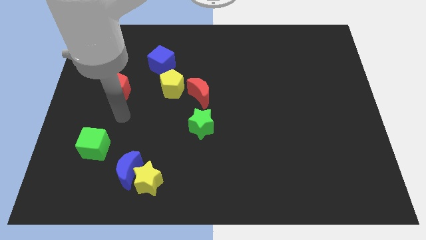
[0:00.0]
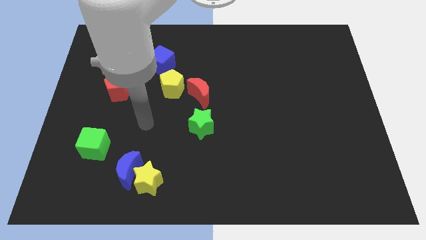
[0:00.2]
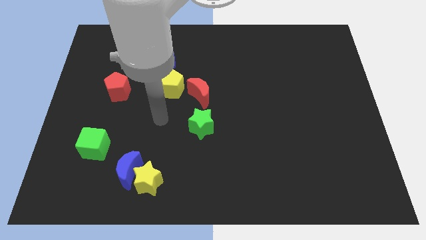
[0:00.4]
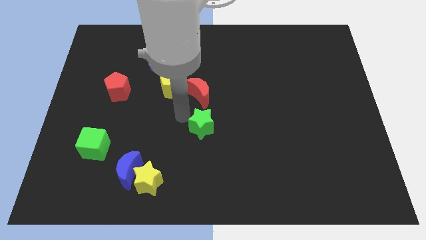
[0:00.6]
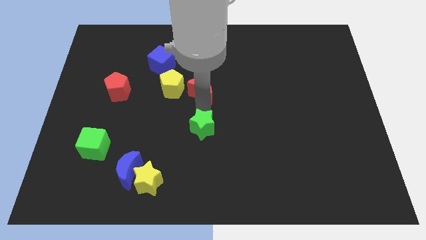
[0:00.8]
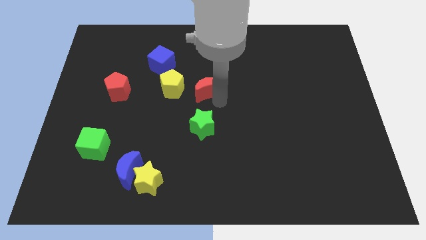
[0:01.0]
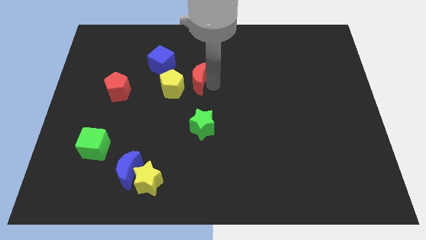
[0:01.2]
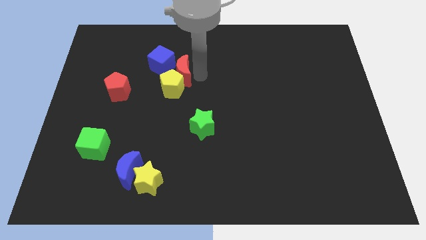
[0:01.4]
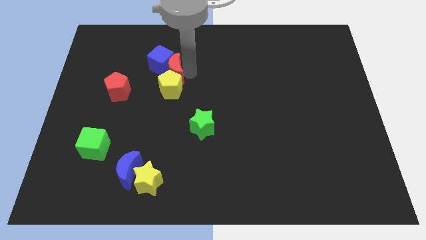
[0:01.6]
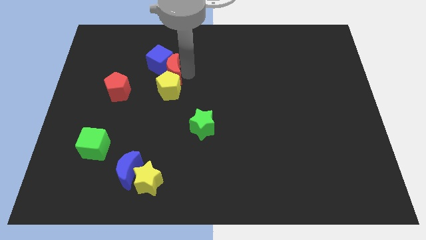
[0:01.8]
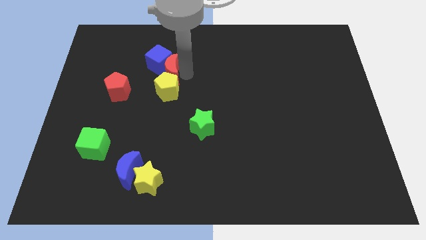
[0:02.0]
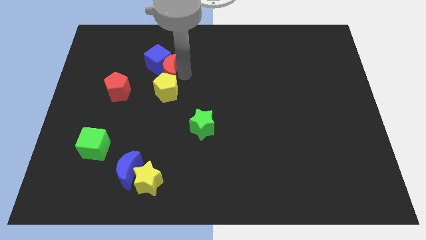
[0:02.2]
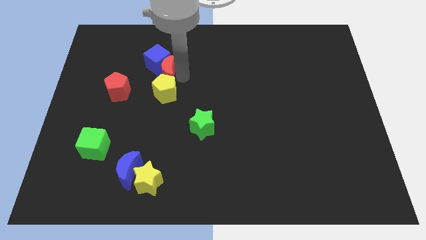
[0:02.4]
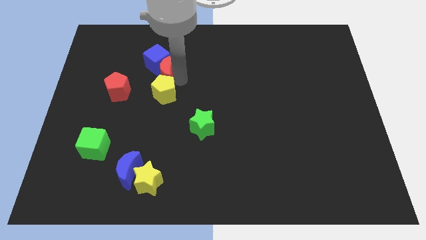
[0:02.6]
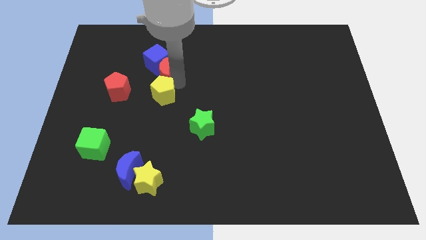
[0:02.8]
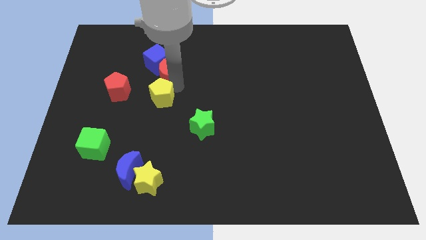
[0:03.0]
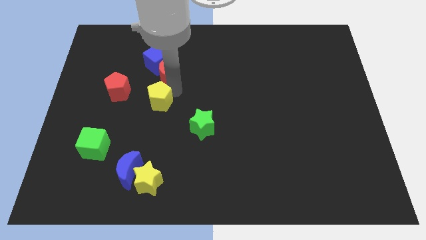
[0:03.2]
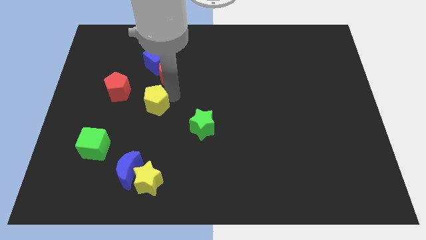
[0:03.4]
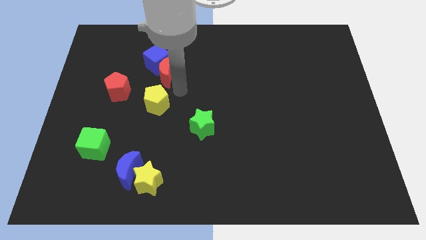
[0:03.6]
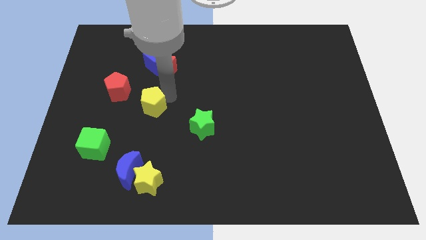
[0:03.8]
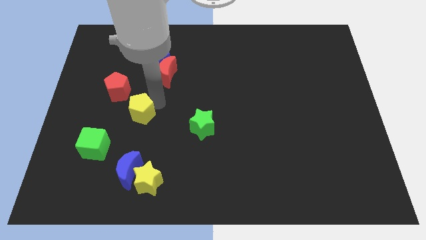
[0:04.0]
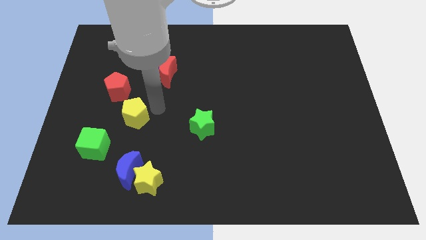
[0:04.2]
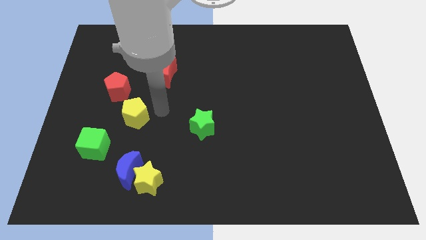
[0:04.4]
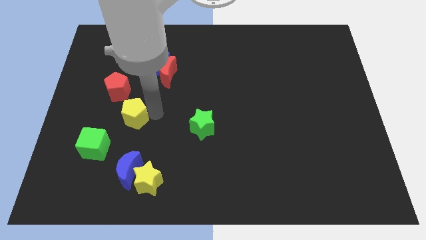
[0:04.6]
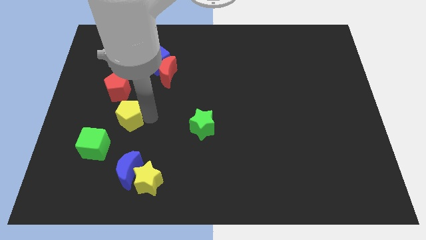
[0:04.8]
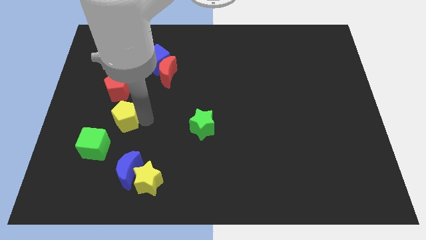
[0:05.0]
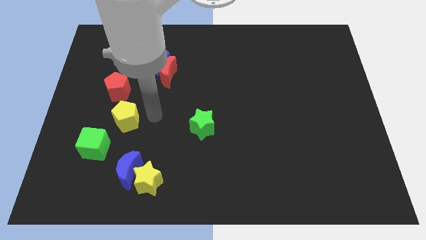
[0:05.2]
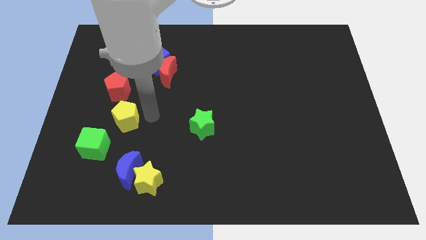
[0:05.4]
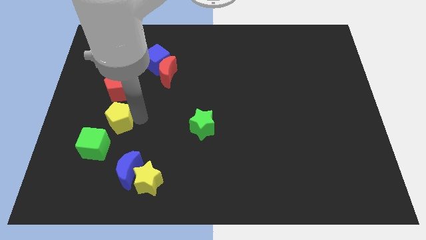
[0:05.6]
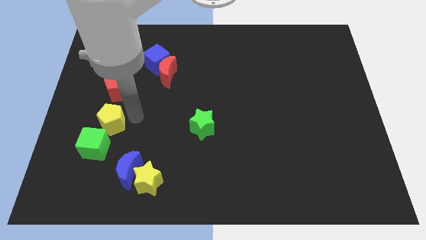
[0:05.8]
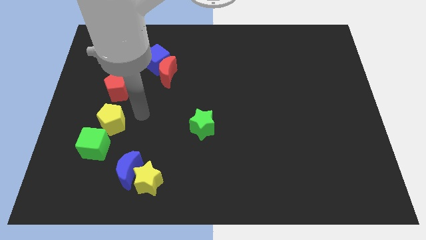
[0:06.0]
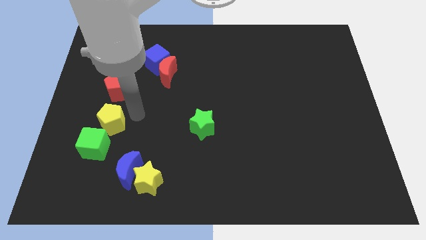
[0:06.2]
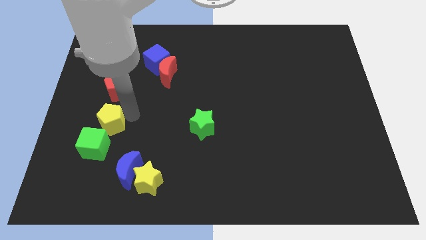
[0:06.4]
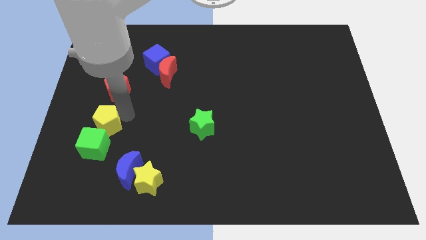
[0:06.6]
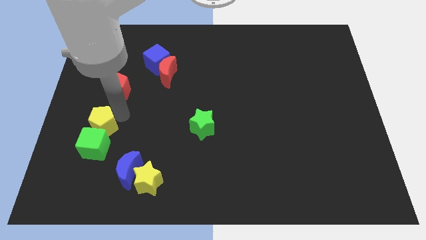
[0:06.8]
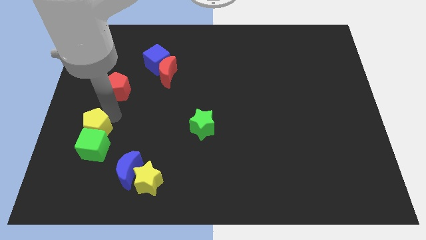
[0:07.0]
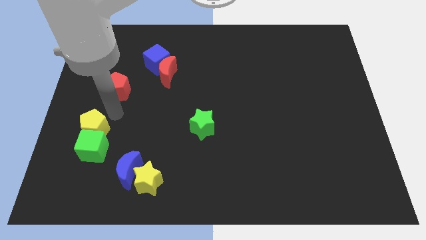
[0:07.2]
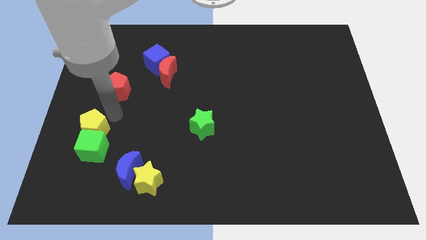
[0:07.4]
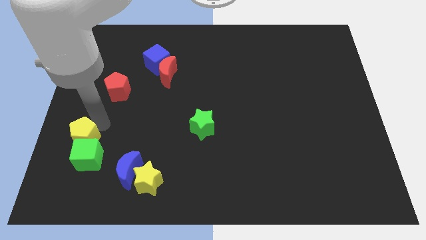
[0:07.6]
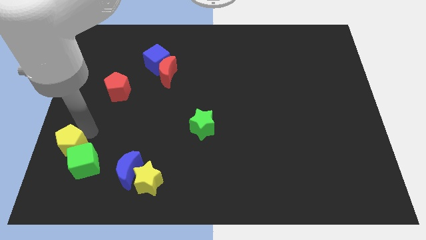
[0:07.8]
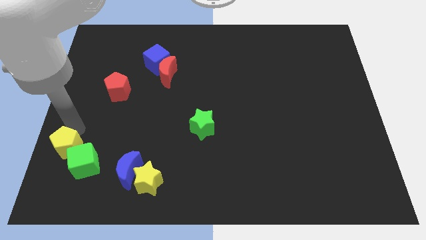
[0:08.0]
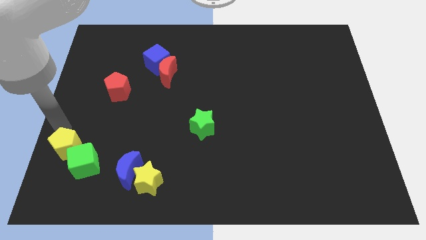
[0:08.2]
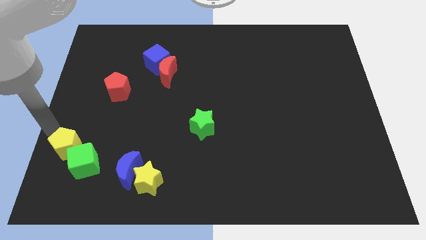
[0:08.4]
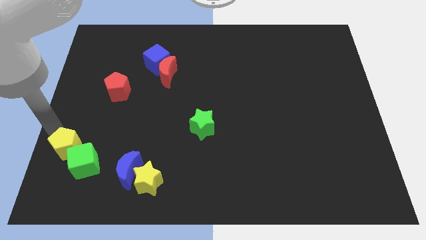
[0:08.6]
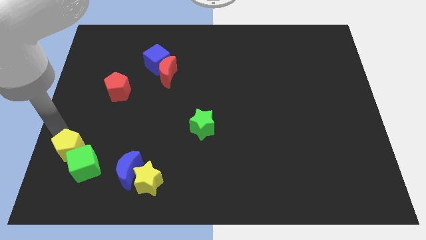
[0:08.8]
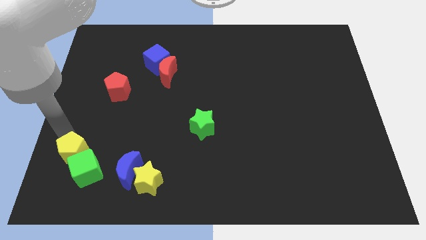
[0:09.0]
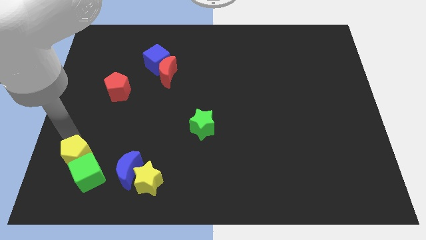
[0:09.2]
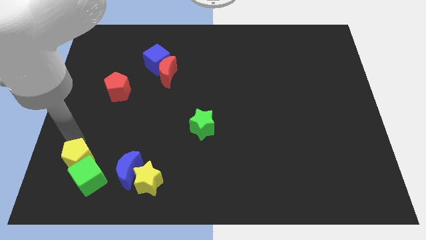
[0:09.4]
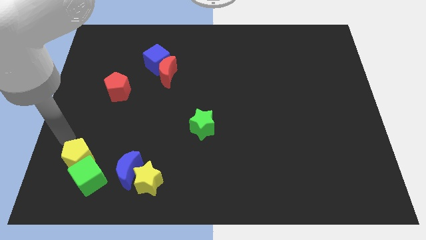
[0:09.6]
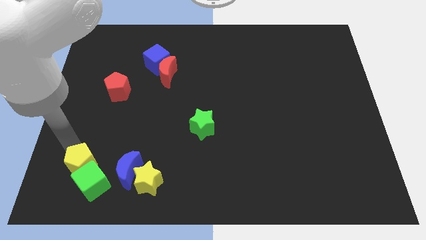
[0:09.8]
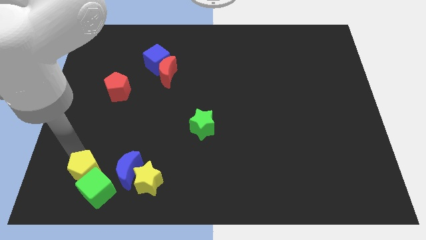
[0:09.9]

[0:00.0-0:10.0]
put the yellow pentagon to the left side of the yellow star

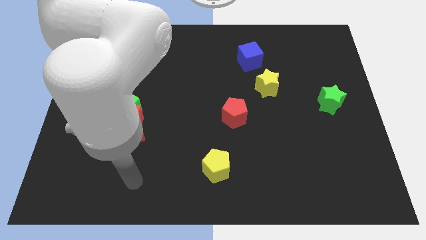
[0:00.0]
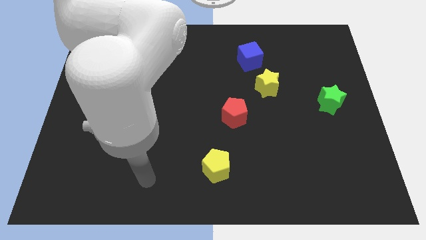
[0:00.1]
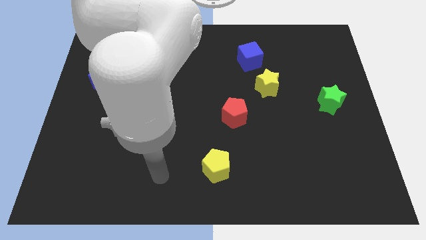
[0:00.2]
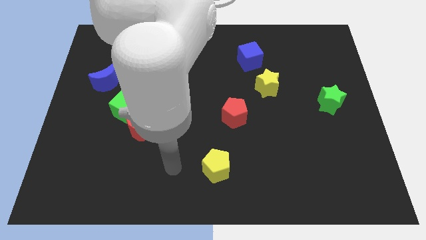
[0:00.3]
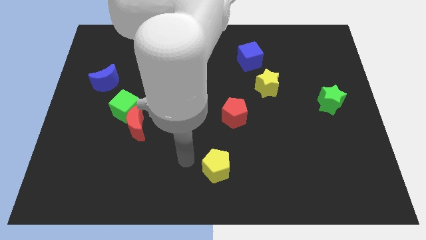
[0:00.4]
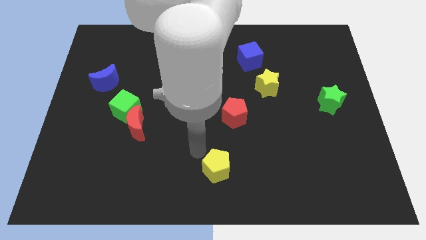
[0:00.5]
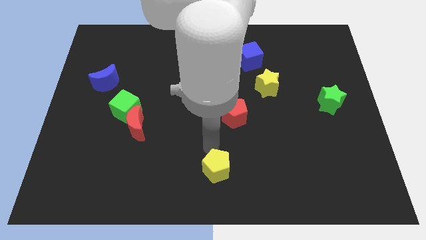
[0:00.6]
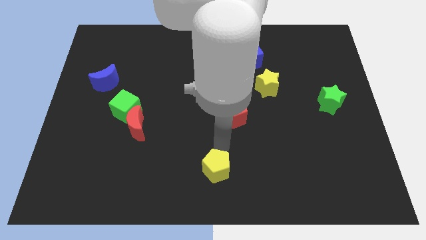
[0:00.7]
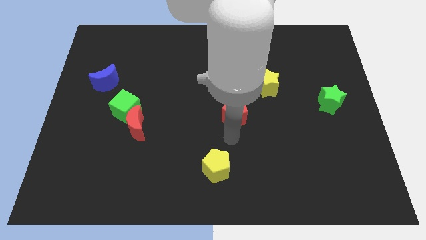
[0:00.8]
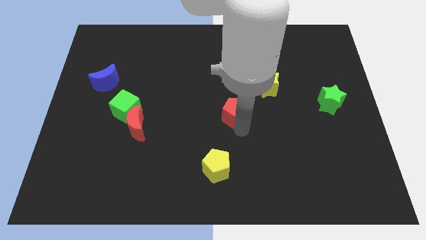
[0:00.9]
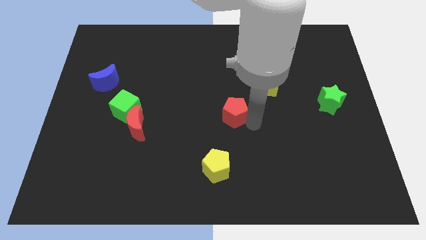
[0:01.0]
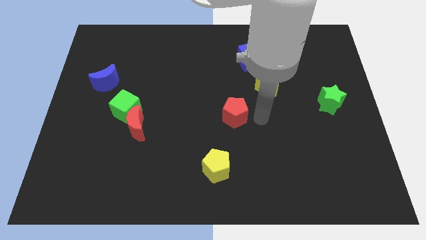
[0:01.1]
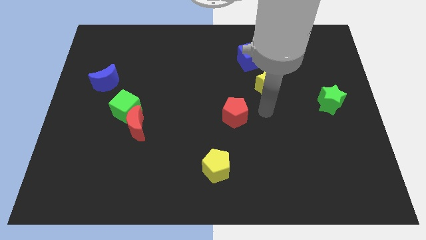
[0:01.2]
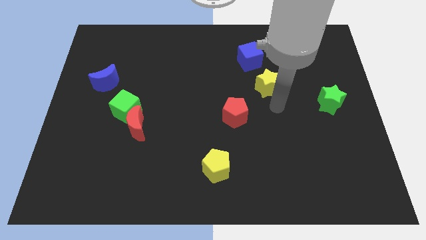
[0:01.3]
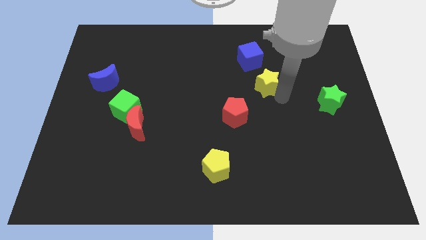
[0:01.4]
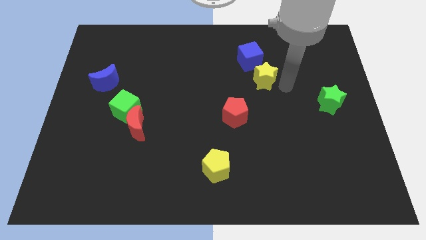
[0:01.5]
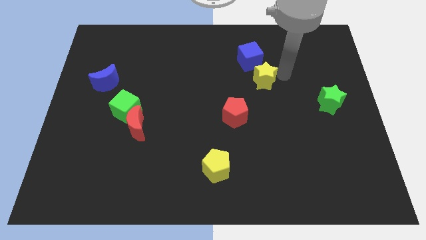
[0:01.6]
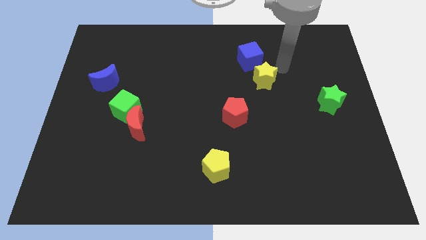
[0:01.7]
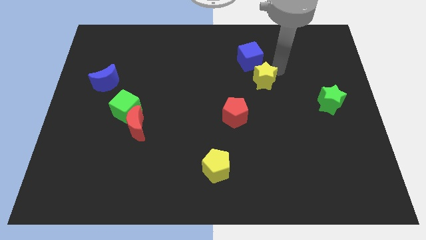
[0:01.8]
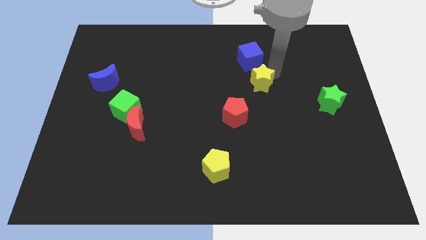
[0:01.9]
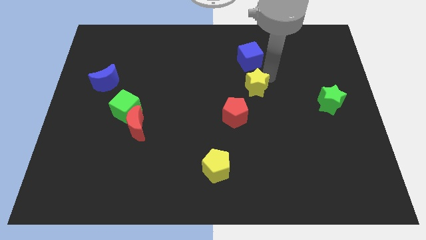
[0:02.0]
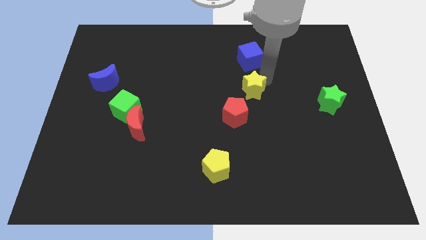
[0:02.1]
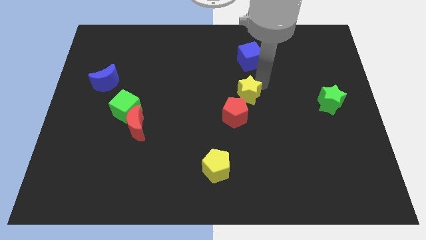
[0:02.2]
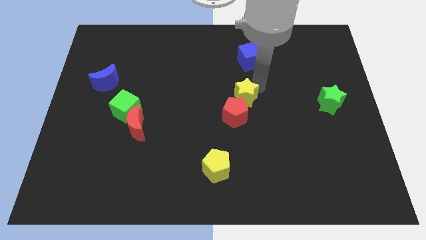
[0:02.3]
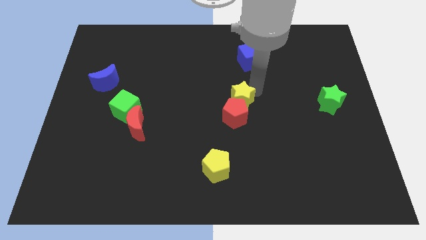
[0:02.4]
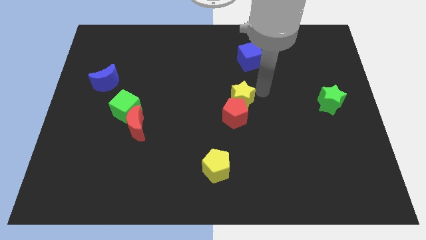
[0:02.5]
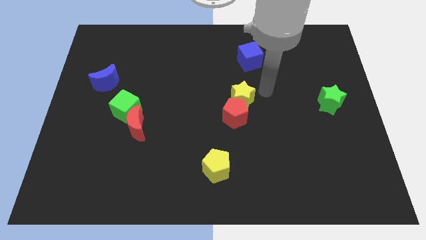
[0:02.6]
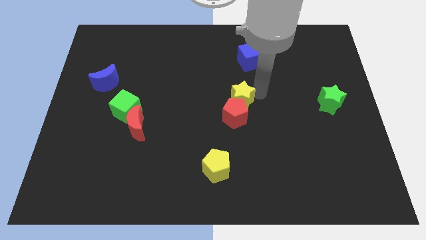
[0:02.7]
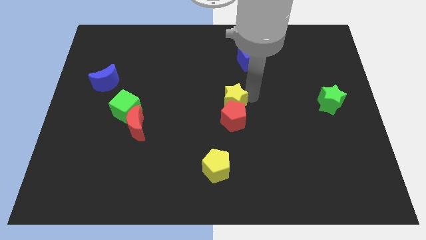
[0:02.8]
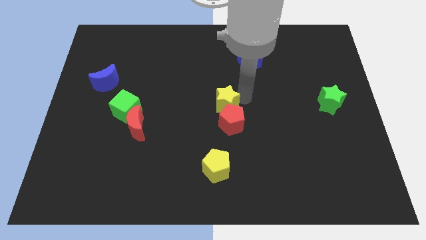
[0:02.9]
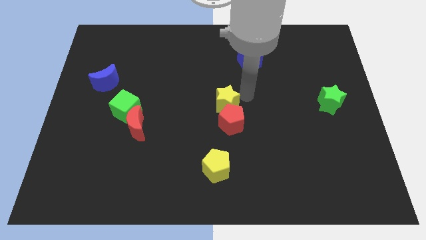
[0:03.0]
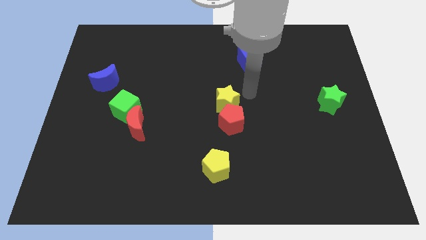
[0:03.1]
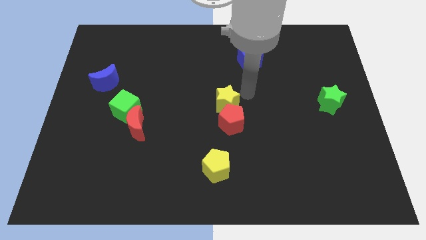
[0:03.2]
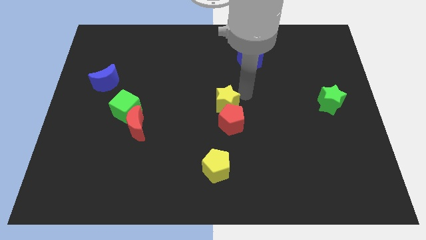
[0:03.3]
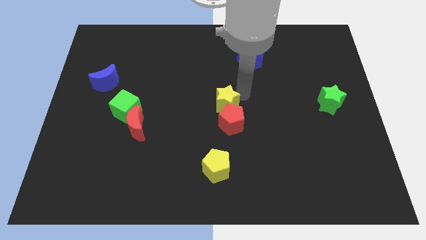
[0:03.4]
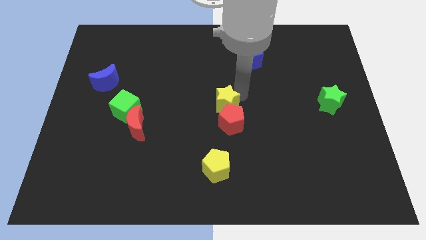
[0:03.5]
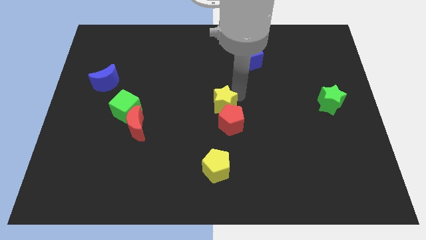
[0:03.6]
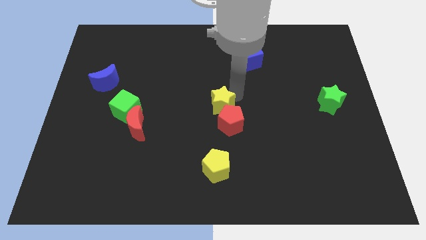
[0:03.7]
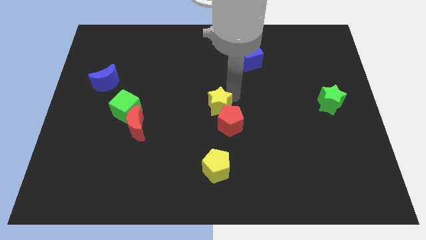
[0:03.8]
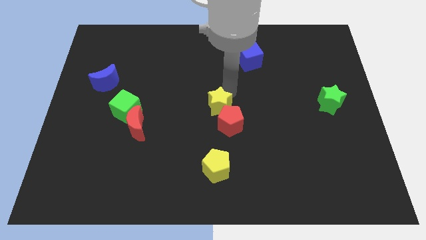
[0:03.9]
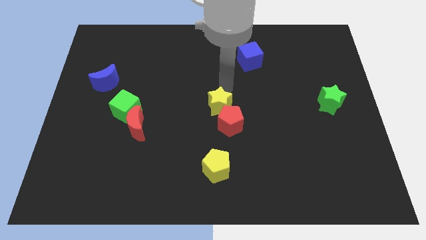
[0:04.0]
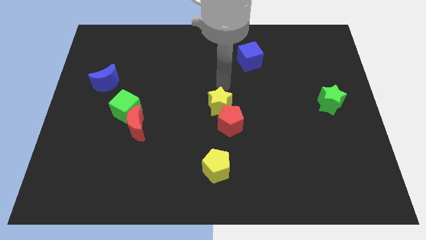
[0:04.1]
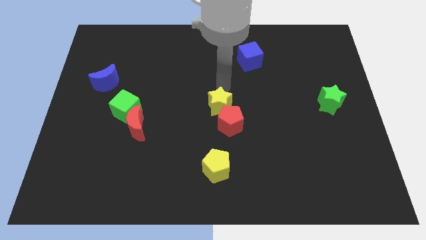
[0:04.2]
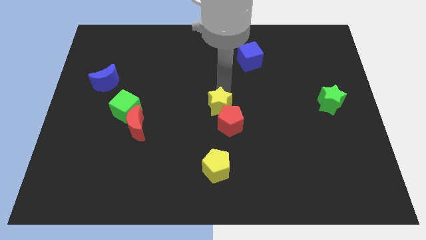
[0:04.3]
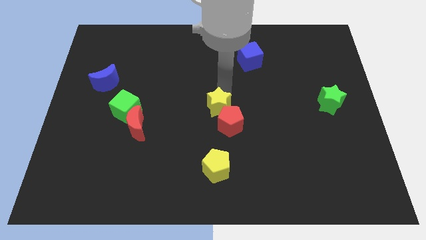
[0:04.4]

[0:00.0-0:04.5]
slide the yellow star above the yellow pentagon
